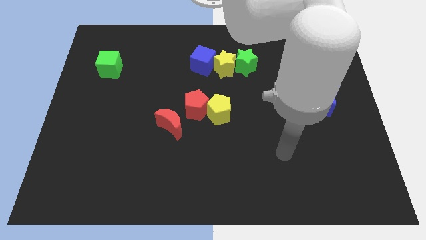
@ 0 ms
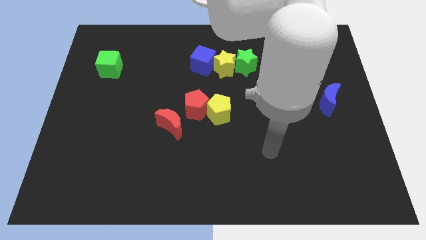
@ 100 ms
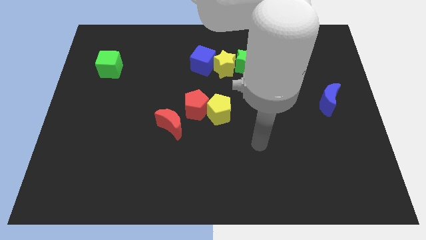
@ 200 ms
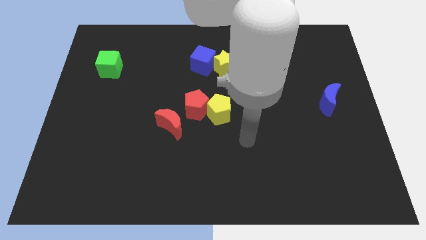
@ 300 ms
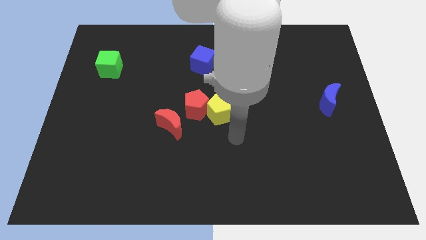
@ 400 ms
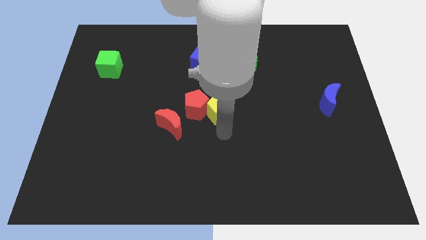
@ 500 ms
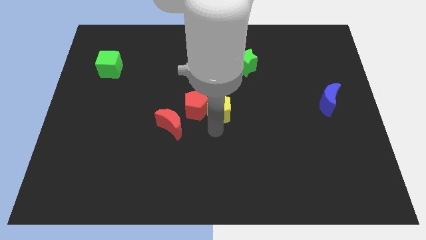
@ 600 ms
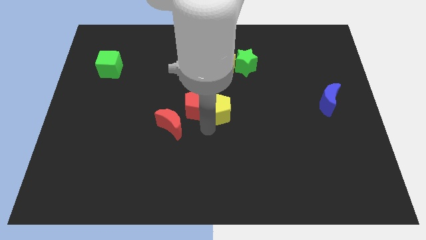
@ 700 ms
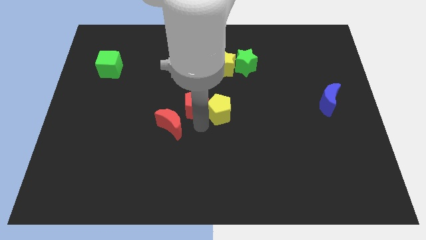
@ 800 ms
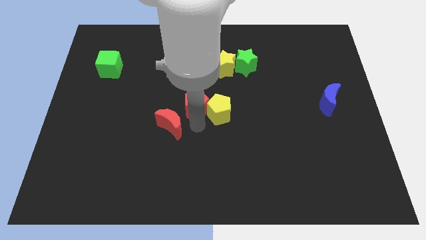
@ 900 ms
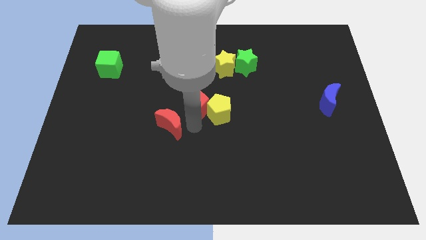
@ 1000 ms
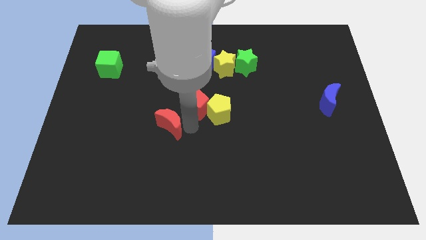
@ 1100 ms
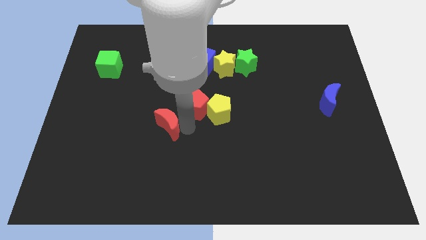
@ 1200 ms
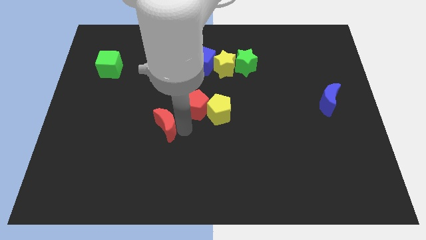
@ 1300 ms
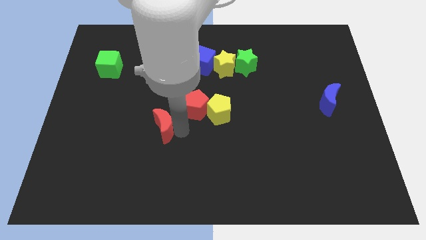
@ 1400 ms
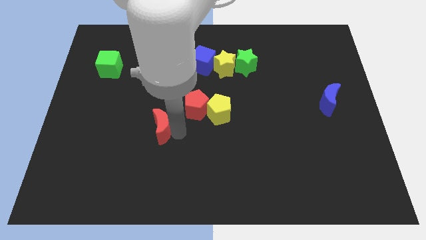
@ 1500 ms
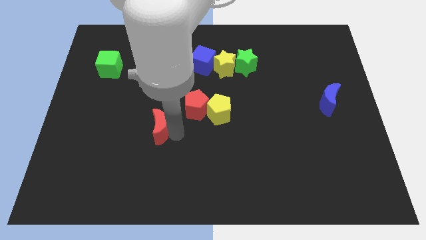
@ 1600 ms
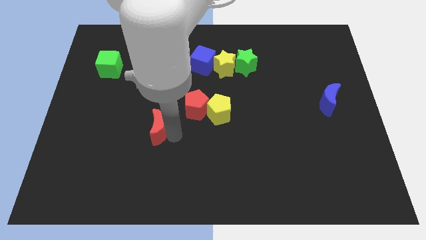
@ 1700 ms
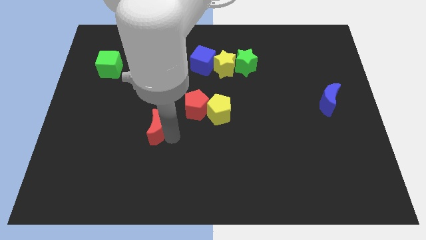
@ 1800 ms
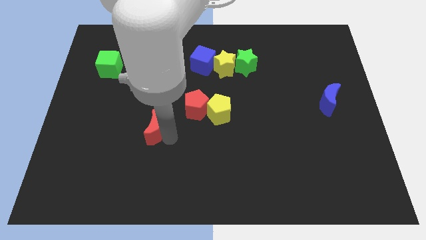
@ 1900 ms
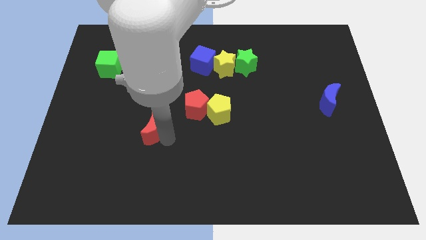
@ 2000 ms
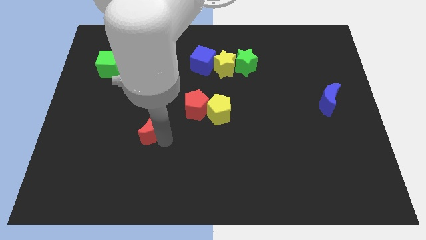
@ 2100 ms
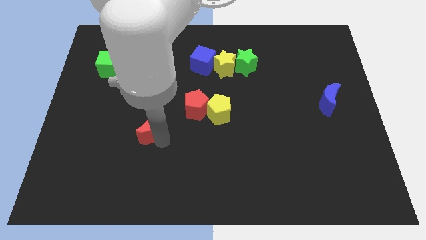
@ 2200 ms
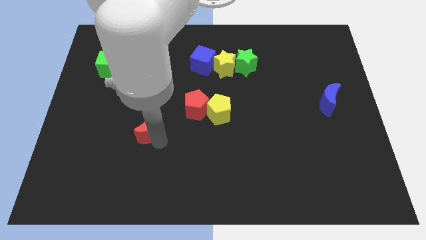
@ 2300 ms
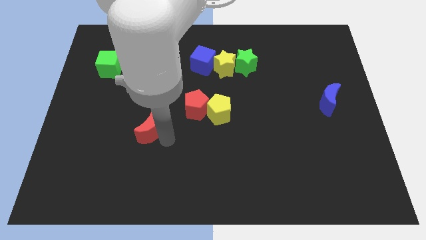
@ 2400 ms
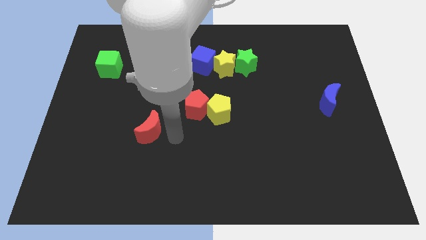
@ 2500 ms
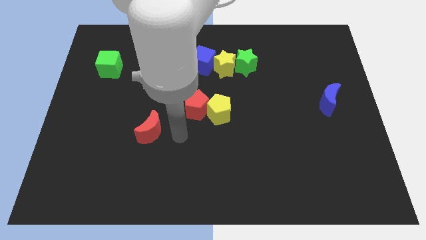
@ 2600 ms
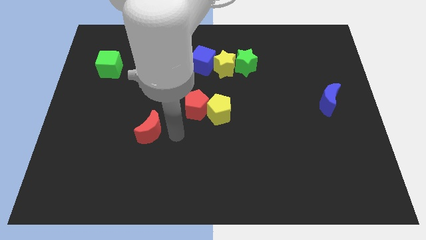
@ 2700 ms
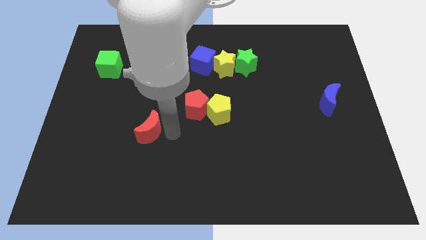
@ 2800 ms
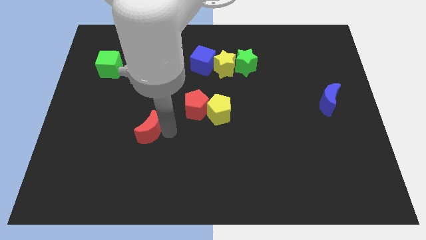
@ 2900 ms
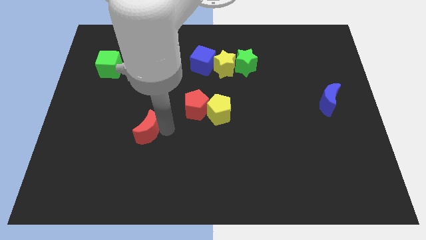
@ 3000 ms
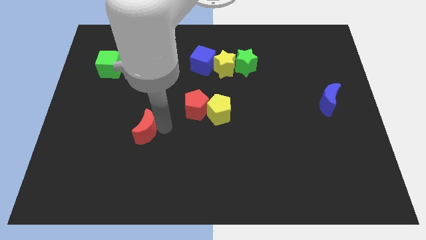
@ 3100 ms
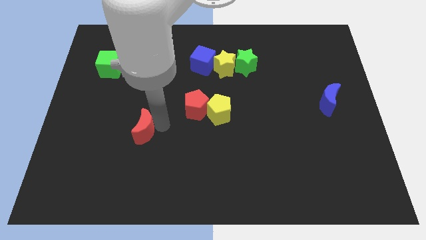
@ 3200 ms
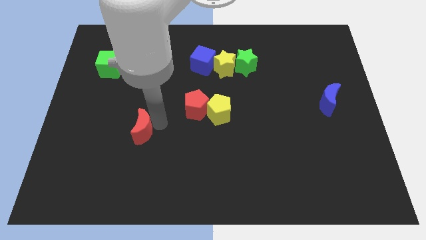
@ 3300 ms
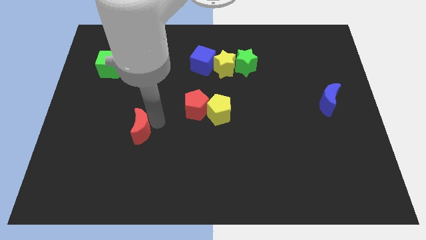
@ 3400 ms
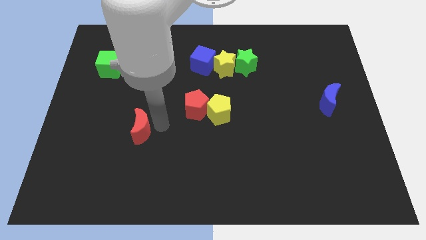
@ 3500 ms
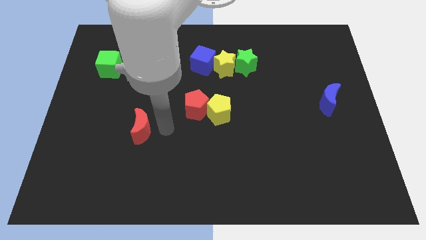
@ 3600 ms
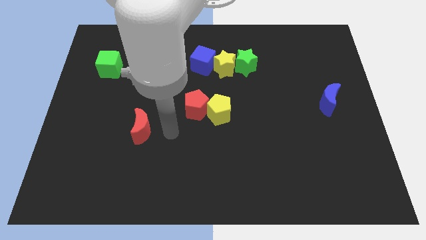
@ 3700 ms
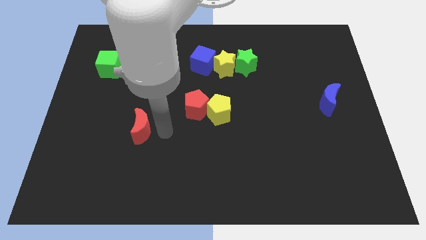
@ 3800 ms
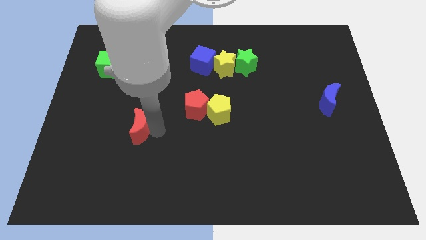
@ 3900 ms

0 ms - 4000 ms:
slightly slide the red moon left

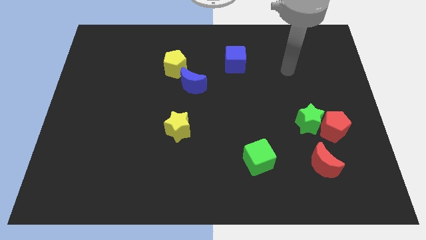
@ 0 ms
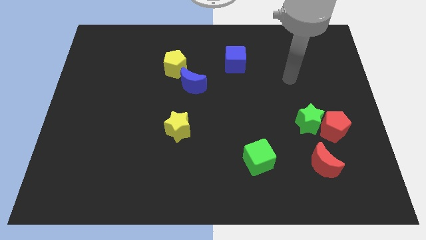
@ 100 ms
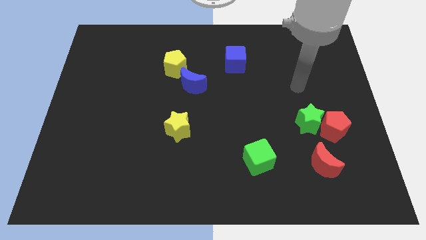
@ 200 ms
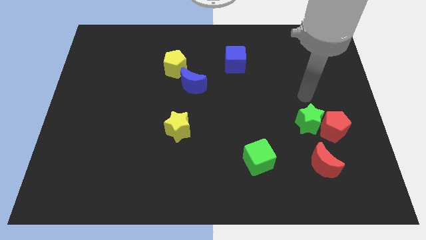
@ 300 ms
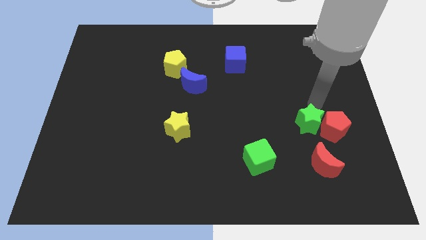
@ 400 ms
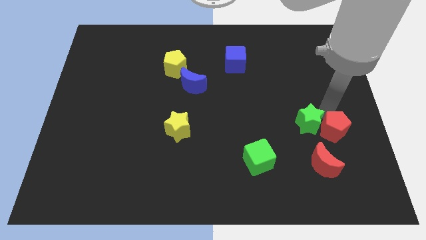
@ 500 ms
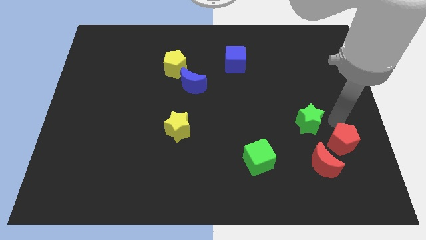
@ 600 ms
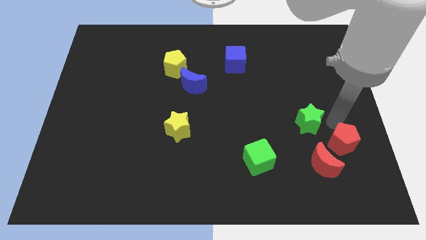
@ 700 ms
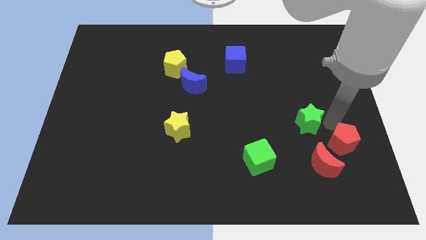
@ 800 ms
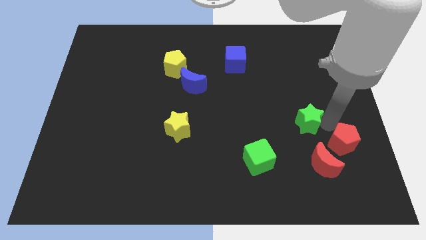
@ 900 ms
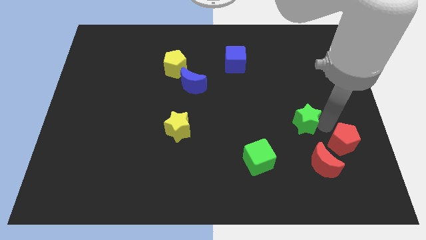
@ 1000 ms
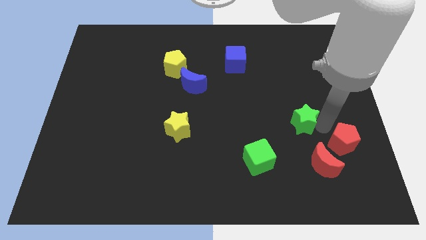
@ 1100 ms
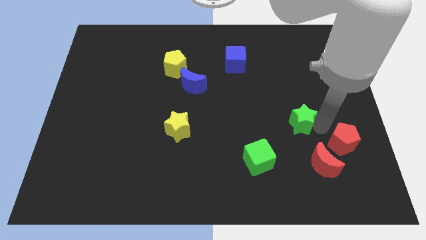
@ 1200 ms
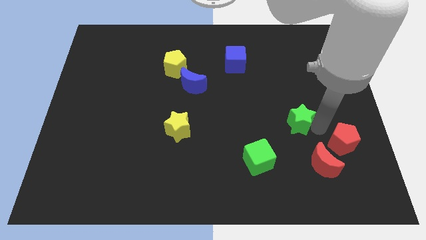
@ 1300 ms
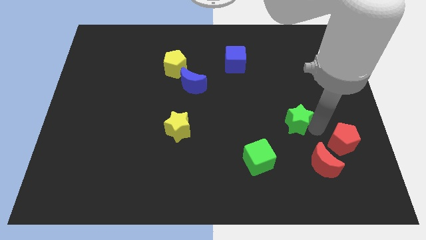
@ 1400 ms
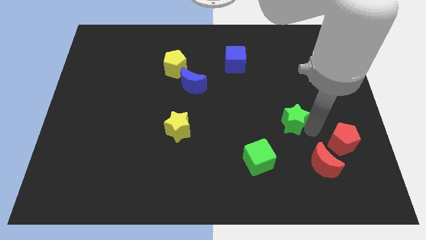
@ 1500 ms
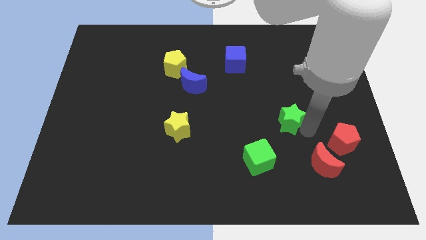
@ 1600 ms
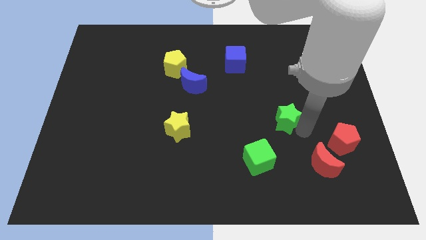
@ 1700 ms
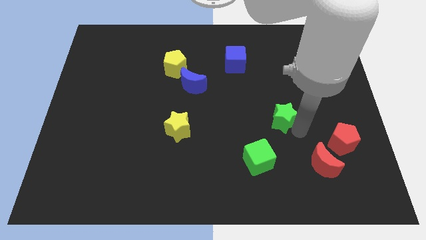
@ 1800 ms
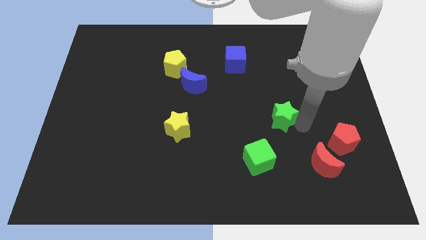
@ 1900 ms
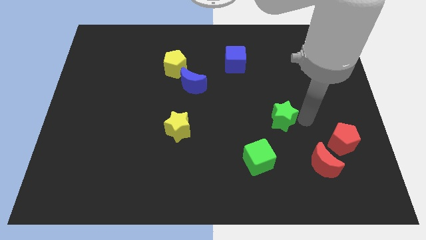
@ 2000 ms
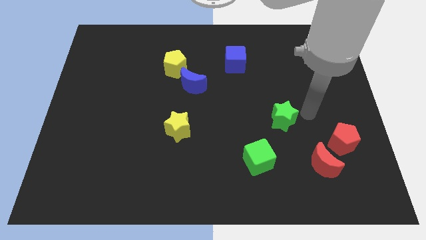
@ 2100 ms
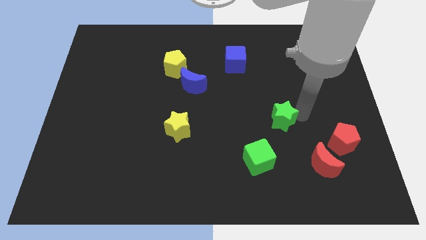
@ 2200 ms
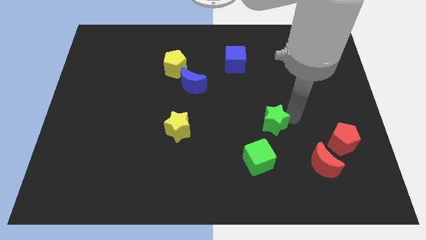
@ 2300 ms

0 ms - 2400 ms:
slightly slide the green star to the left

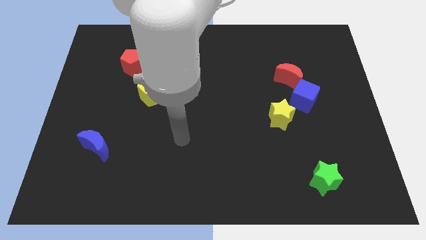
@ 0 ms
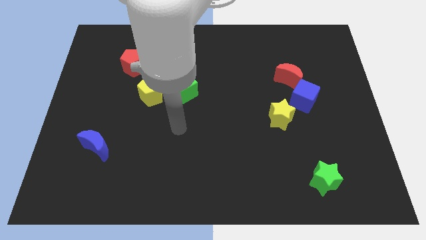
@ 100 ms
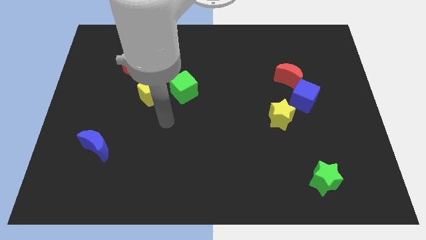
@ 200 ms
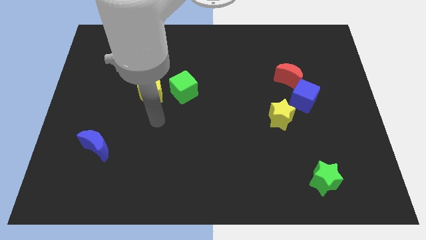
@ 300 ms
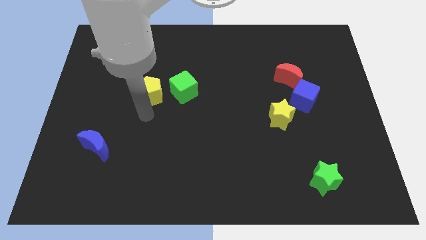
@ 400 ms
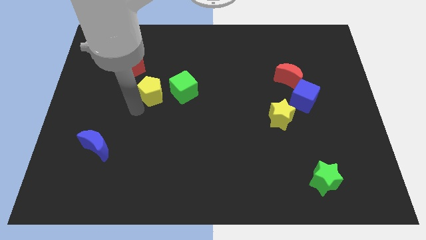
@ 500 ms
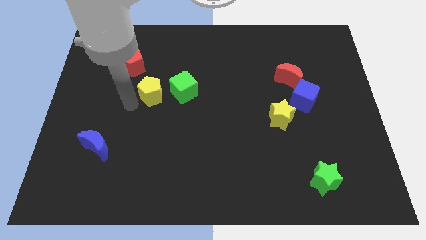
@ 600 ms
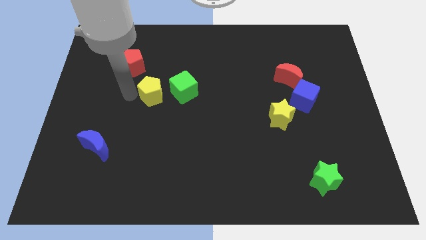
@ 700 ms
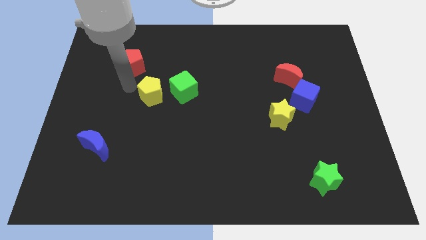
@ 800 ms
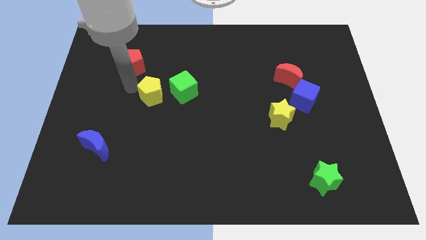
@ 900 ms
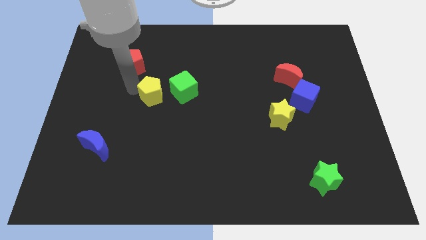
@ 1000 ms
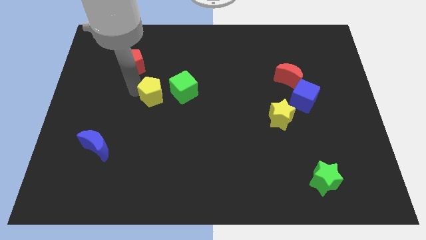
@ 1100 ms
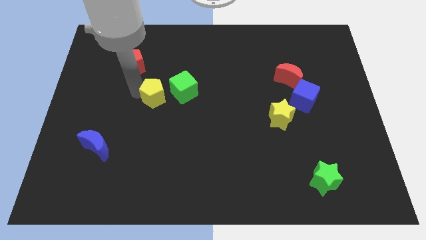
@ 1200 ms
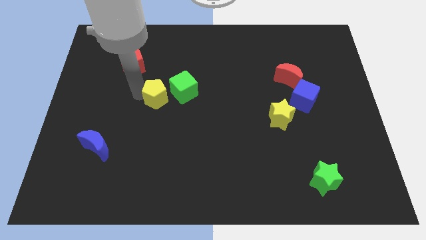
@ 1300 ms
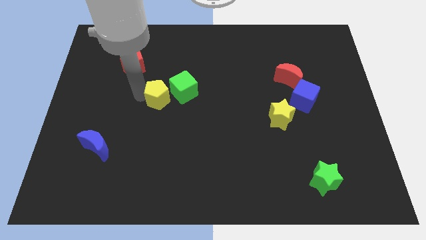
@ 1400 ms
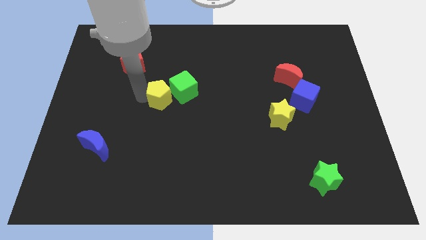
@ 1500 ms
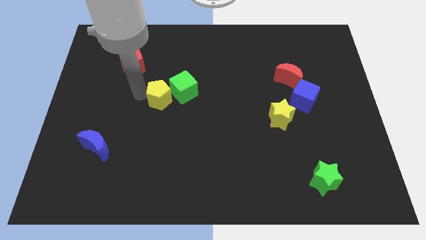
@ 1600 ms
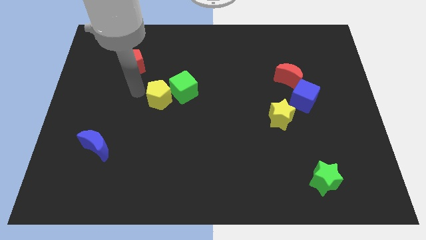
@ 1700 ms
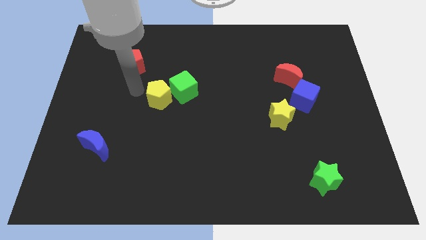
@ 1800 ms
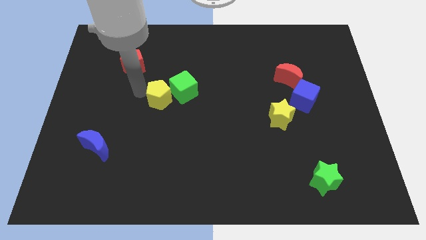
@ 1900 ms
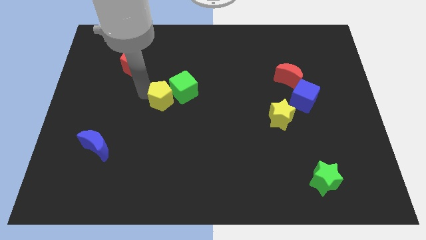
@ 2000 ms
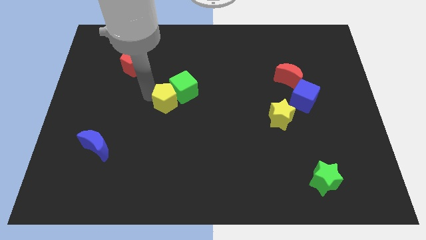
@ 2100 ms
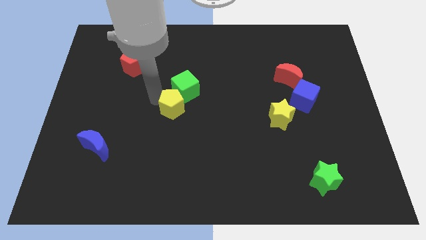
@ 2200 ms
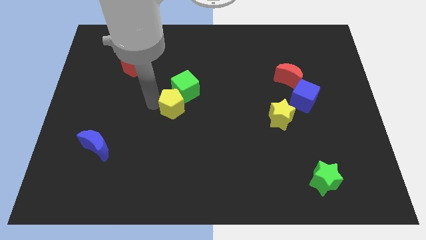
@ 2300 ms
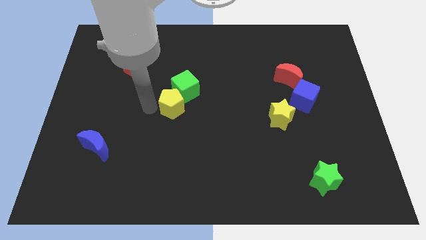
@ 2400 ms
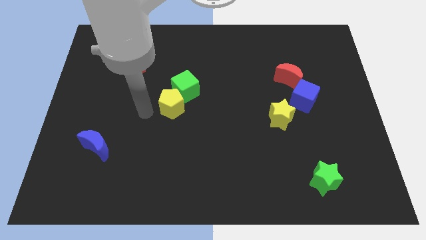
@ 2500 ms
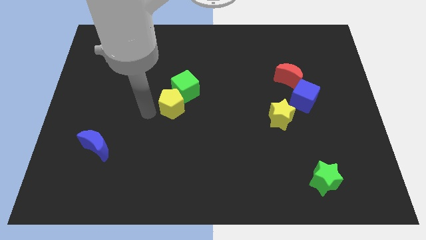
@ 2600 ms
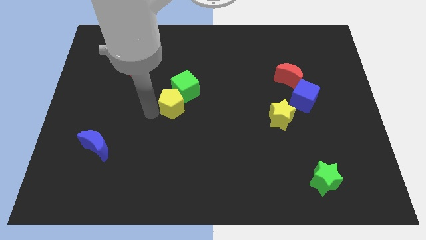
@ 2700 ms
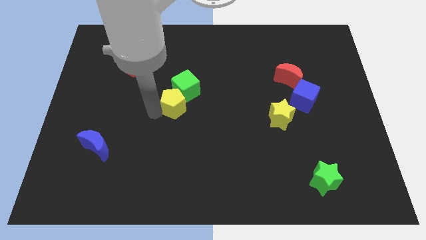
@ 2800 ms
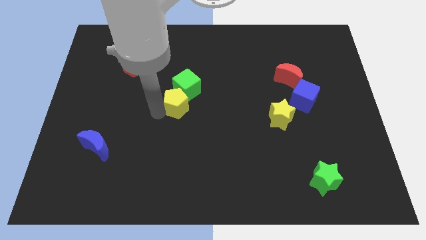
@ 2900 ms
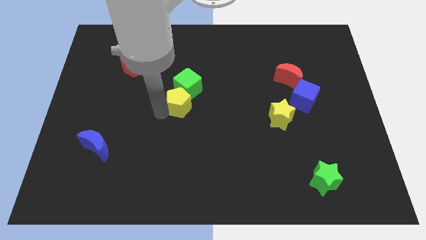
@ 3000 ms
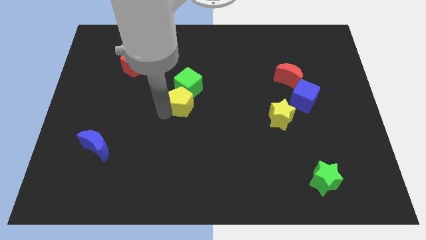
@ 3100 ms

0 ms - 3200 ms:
push the yellow pentagon a bit right
